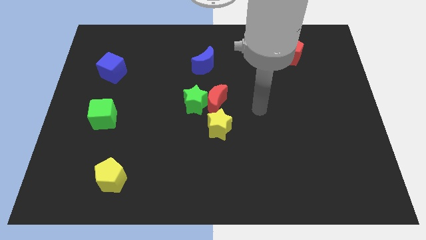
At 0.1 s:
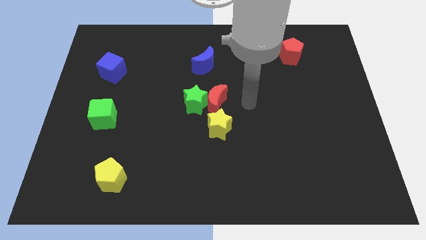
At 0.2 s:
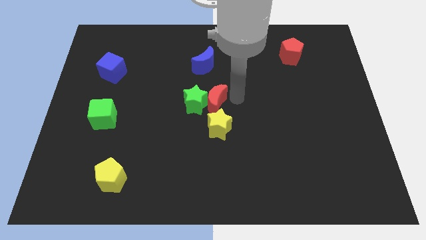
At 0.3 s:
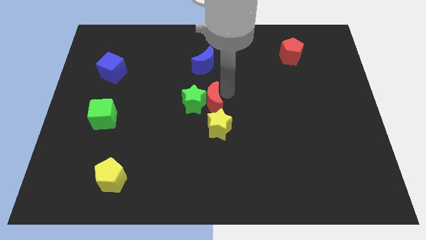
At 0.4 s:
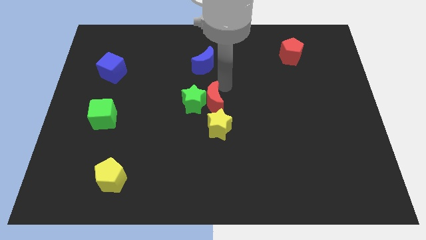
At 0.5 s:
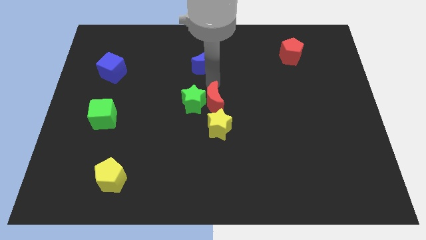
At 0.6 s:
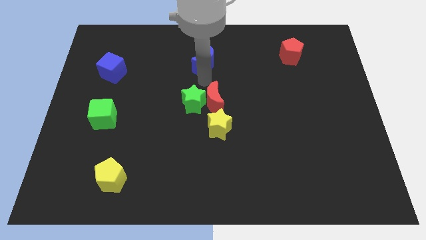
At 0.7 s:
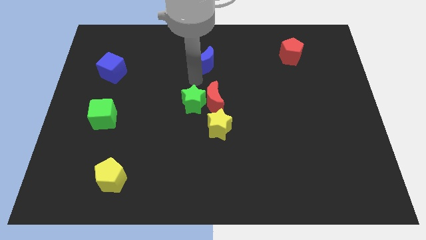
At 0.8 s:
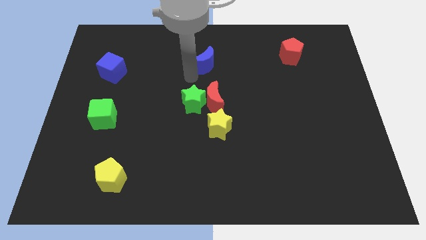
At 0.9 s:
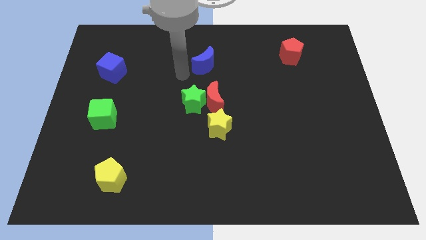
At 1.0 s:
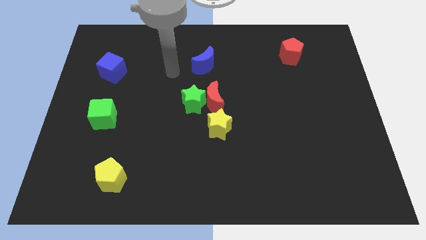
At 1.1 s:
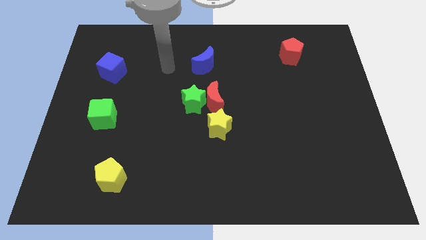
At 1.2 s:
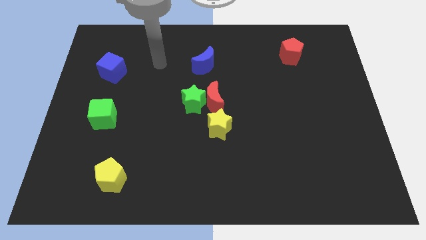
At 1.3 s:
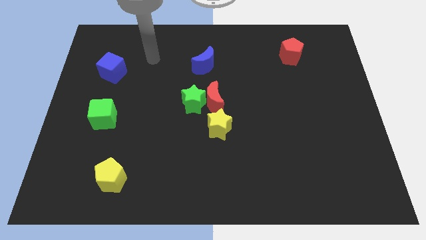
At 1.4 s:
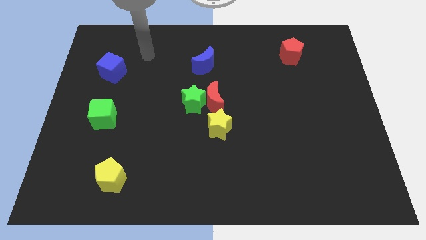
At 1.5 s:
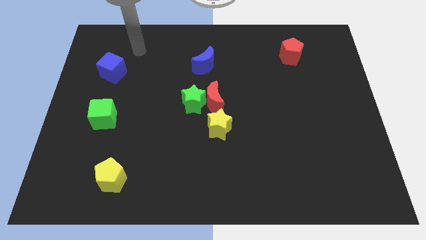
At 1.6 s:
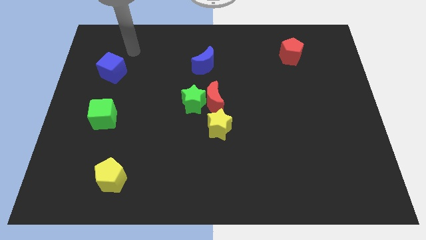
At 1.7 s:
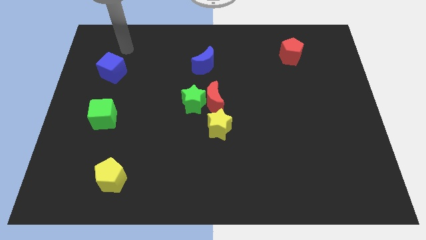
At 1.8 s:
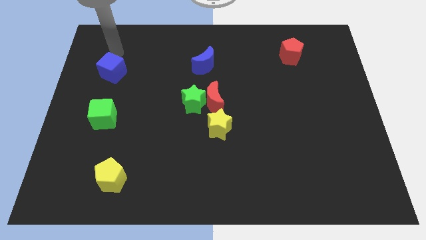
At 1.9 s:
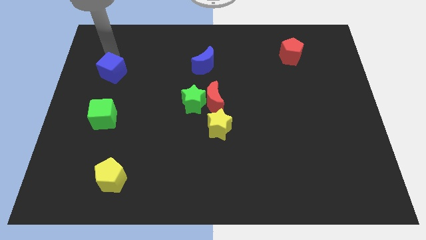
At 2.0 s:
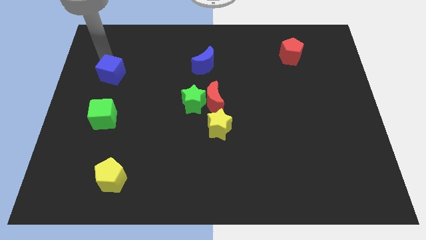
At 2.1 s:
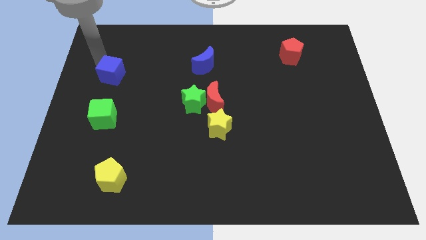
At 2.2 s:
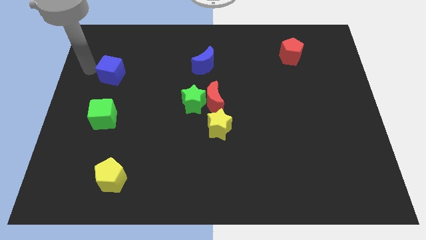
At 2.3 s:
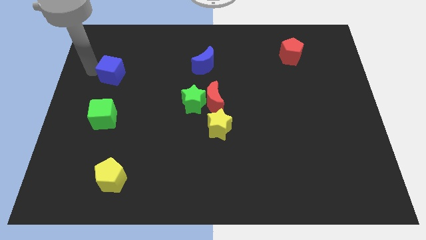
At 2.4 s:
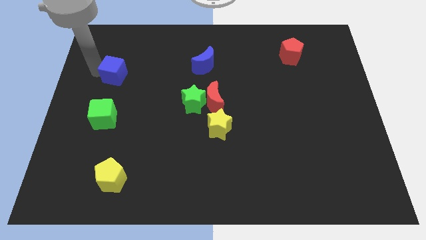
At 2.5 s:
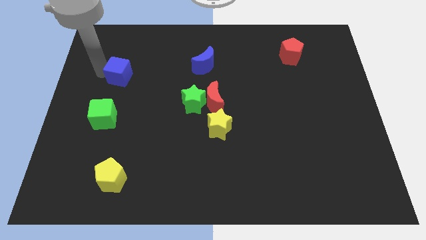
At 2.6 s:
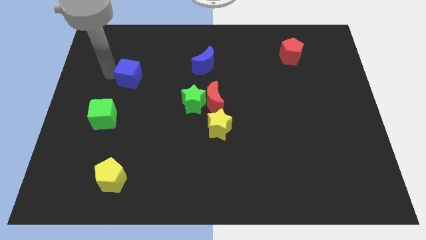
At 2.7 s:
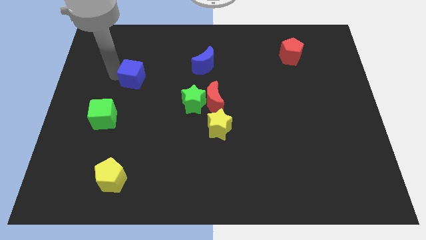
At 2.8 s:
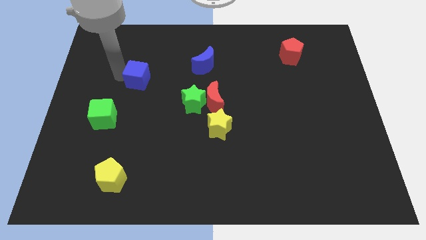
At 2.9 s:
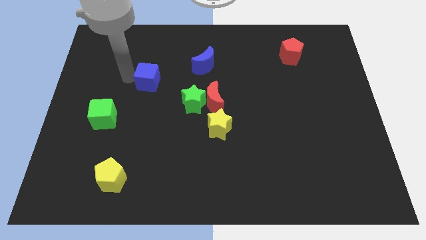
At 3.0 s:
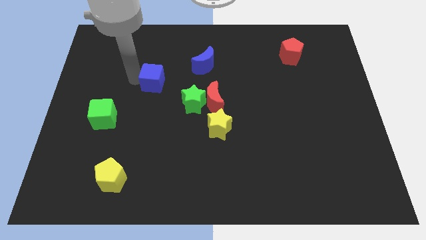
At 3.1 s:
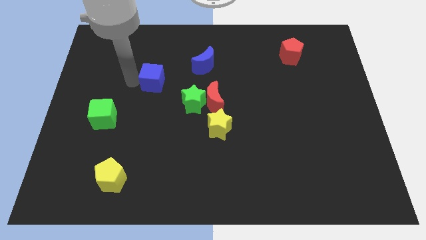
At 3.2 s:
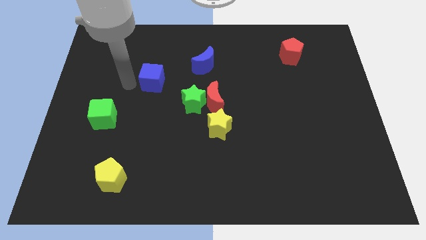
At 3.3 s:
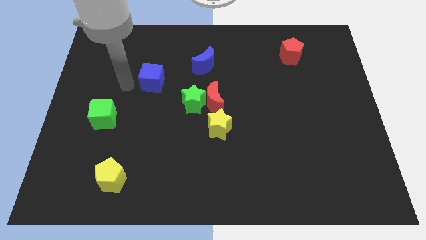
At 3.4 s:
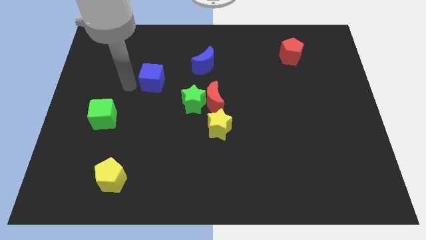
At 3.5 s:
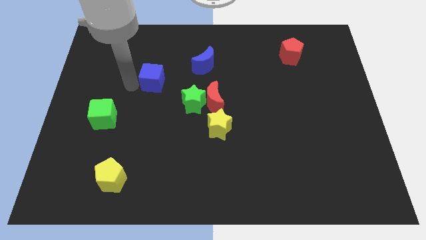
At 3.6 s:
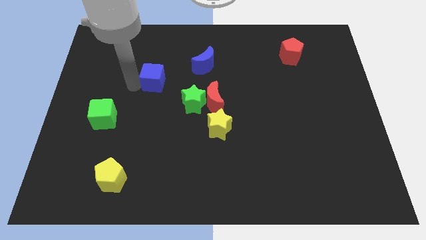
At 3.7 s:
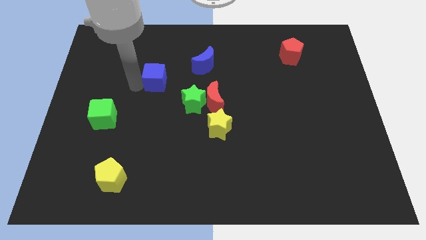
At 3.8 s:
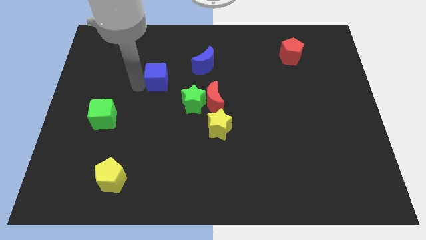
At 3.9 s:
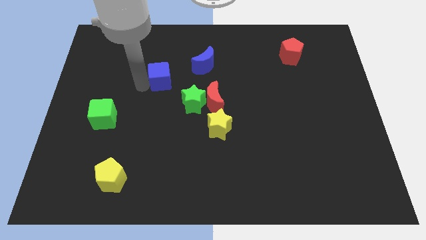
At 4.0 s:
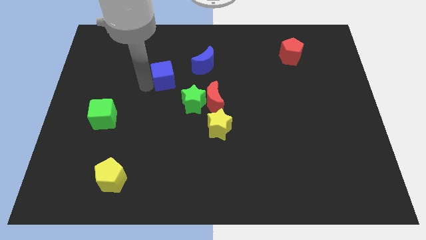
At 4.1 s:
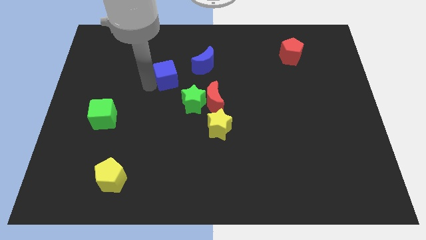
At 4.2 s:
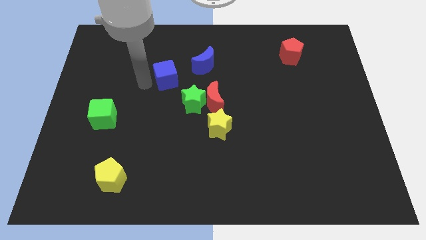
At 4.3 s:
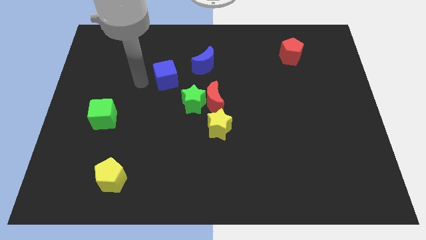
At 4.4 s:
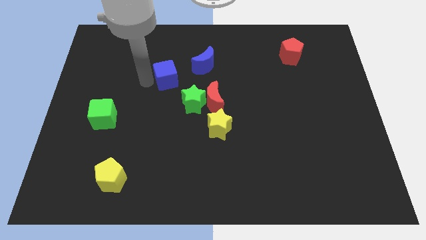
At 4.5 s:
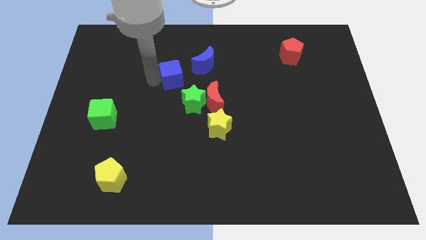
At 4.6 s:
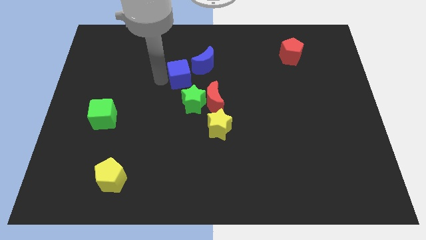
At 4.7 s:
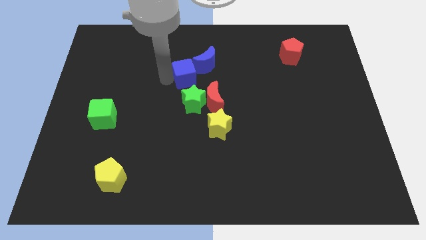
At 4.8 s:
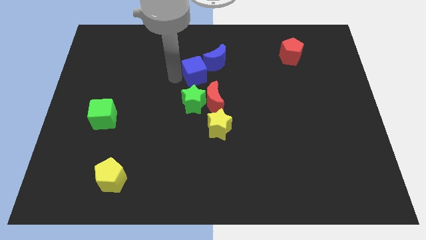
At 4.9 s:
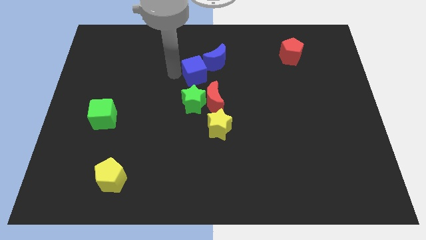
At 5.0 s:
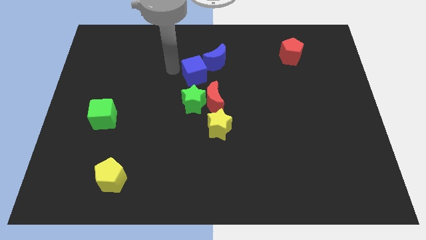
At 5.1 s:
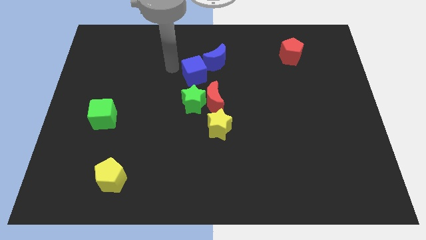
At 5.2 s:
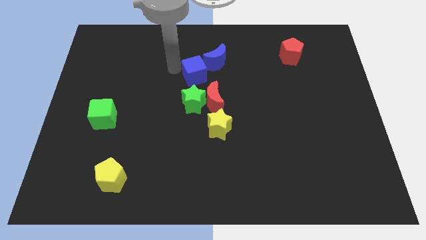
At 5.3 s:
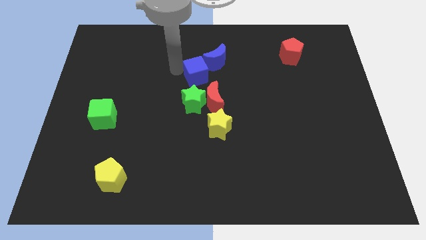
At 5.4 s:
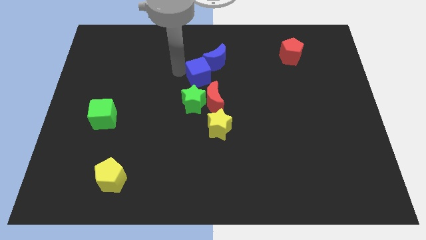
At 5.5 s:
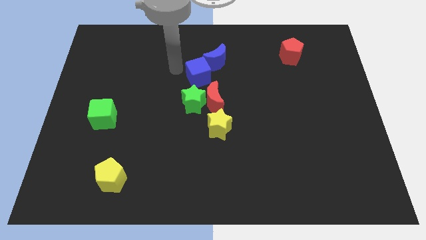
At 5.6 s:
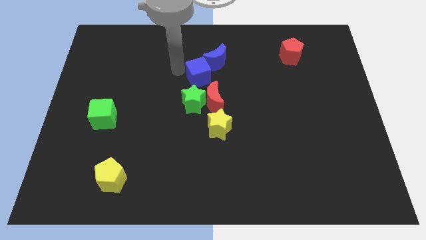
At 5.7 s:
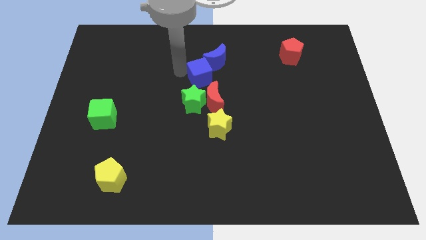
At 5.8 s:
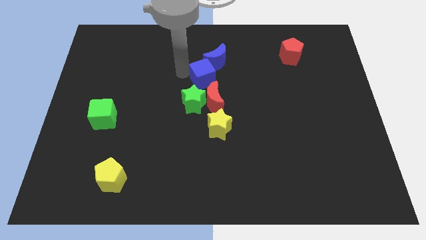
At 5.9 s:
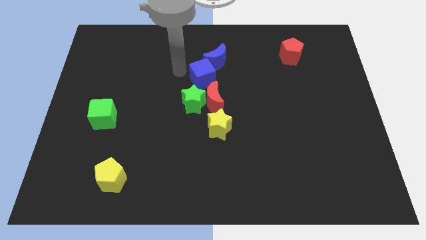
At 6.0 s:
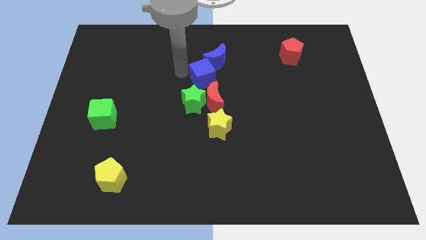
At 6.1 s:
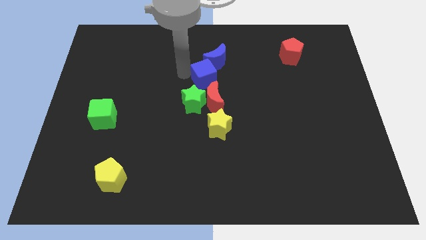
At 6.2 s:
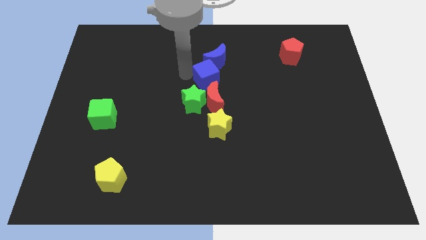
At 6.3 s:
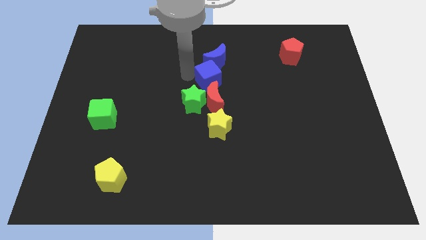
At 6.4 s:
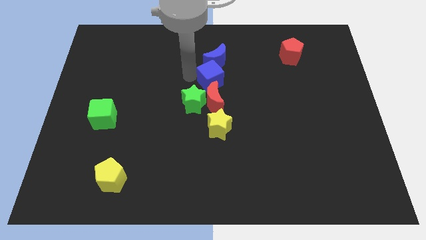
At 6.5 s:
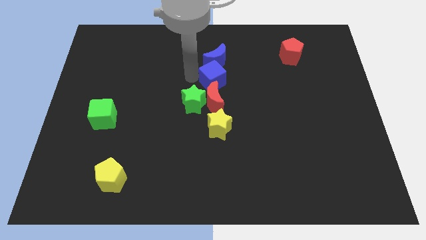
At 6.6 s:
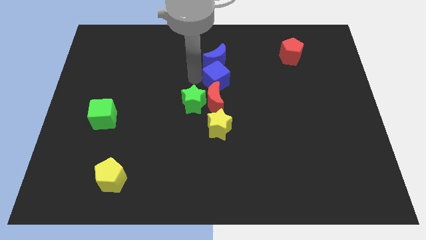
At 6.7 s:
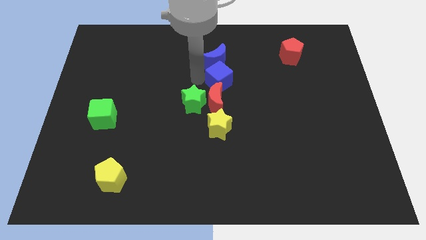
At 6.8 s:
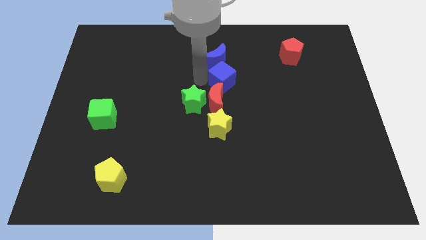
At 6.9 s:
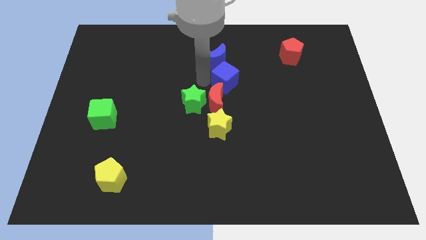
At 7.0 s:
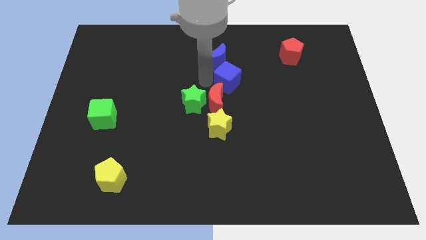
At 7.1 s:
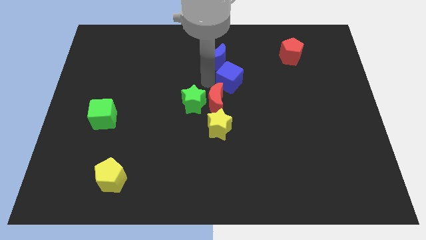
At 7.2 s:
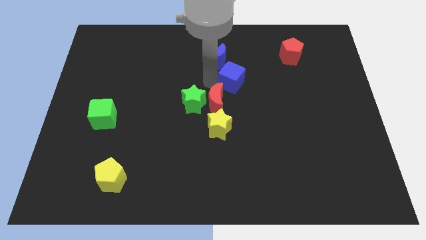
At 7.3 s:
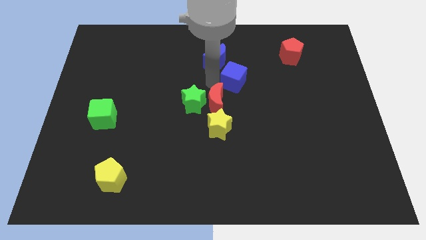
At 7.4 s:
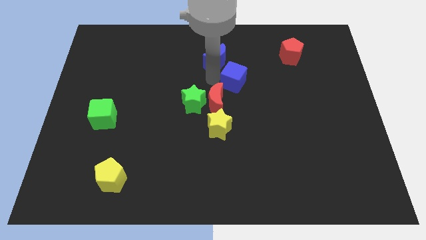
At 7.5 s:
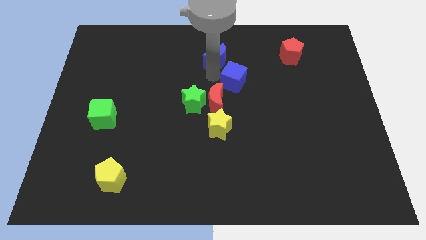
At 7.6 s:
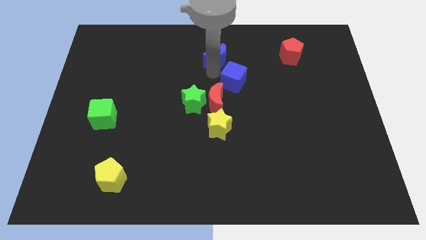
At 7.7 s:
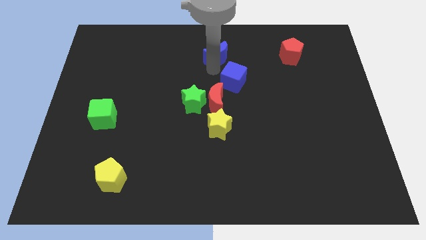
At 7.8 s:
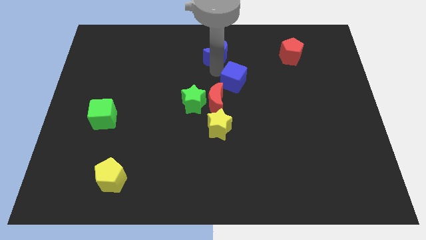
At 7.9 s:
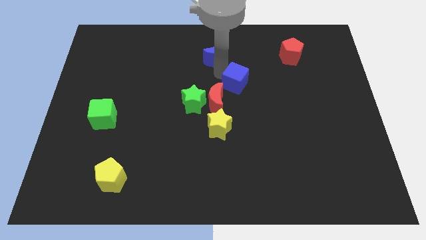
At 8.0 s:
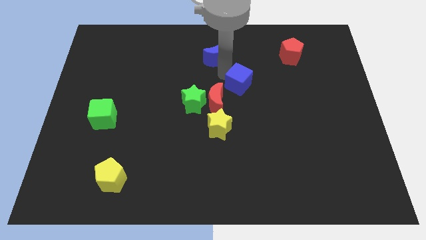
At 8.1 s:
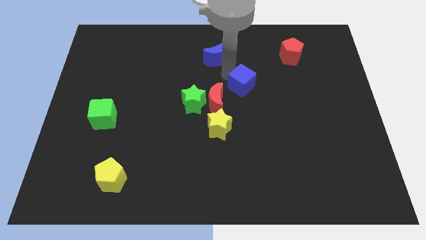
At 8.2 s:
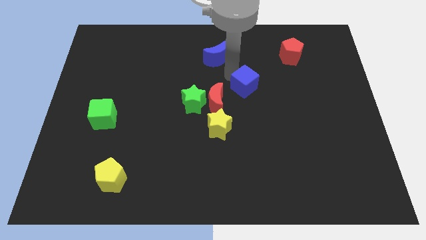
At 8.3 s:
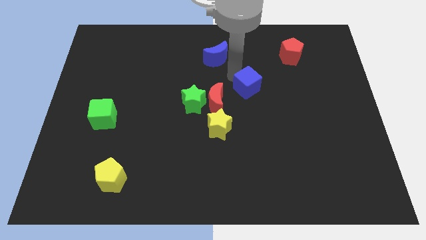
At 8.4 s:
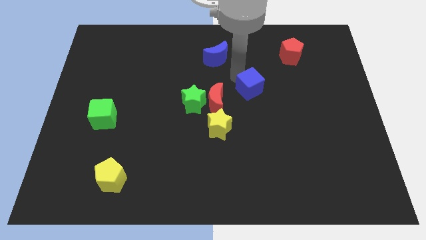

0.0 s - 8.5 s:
slide the blue cube to the right side of the red moon
